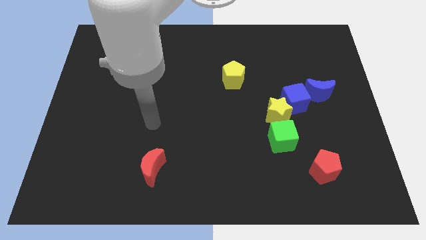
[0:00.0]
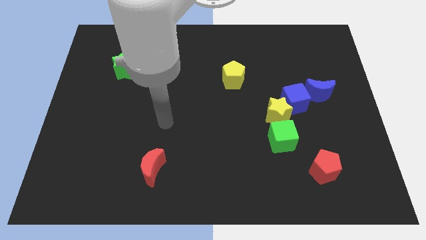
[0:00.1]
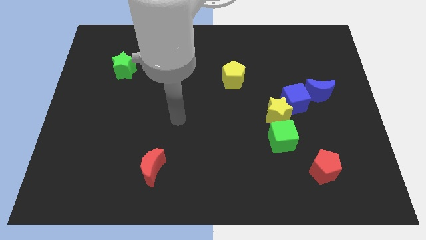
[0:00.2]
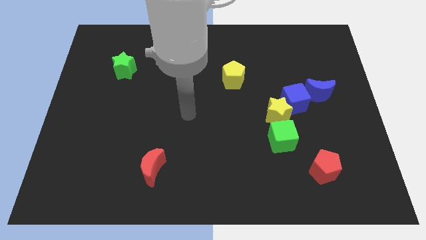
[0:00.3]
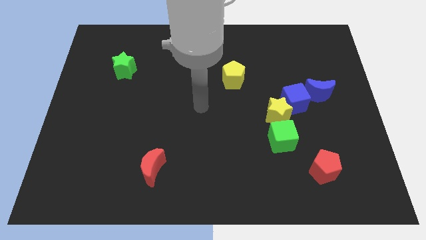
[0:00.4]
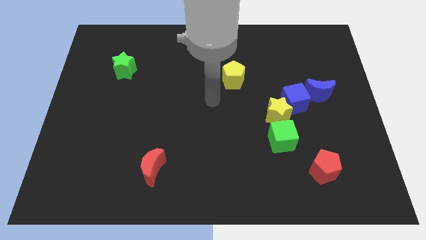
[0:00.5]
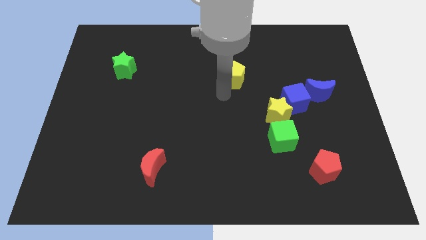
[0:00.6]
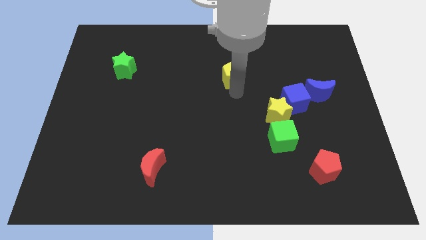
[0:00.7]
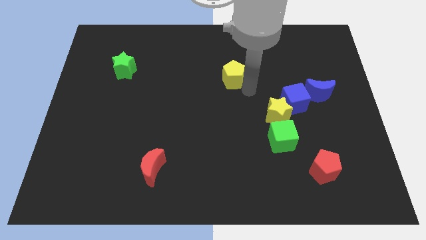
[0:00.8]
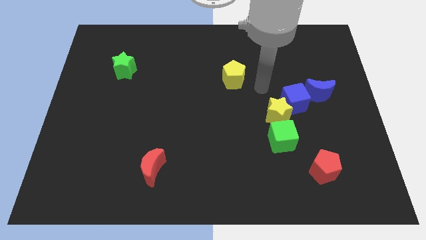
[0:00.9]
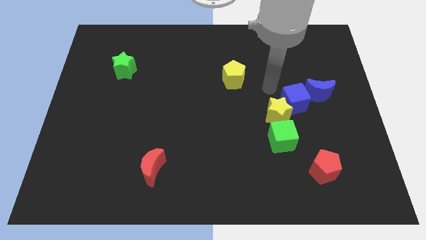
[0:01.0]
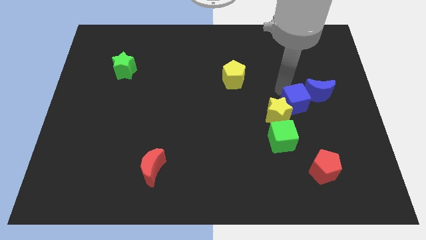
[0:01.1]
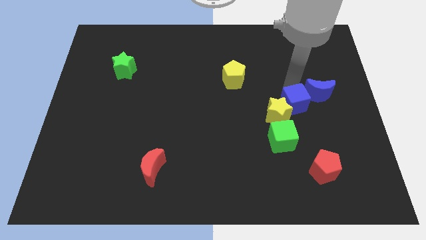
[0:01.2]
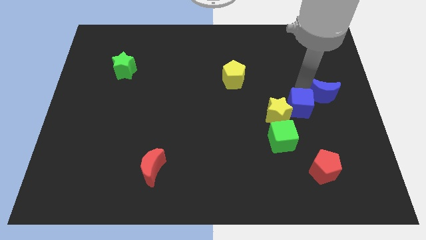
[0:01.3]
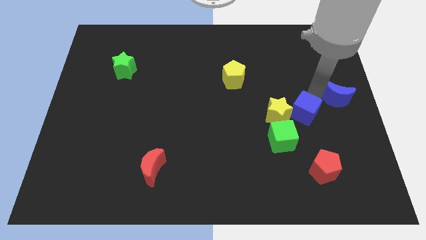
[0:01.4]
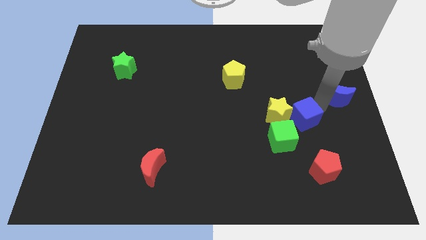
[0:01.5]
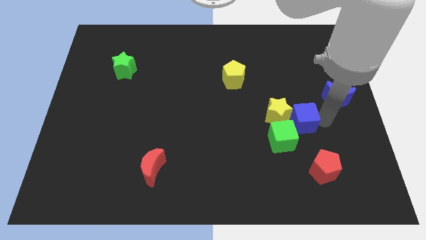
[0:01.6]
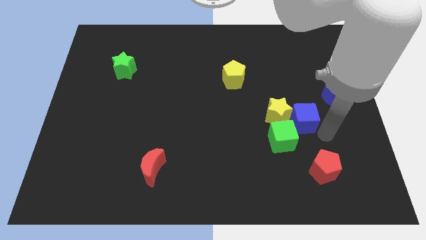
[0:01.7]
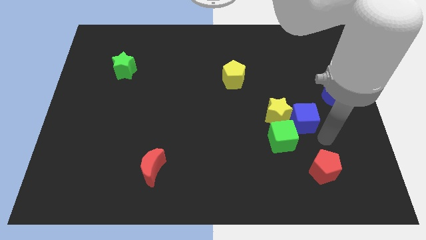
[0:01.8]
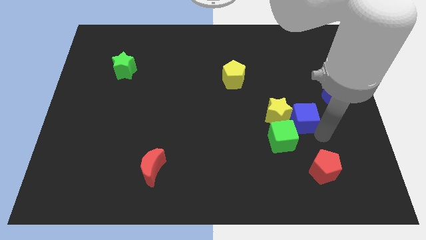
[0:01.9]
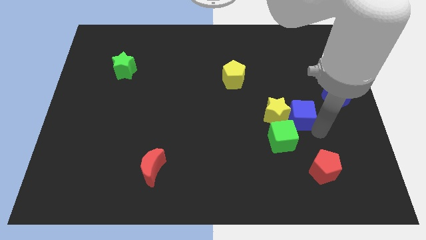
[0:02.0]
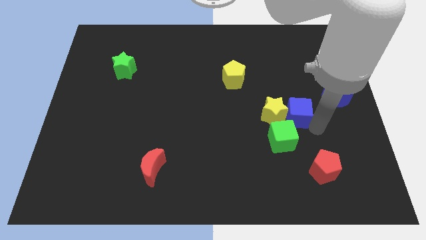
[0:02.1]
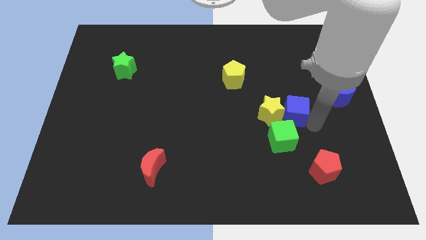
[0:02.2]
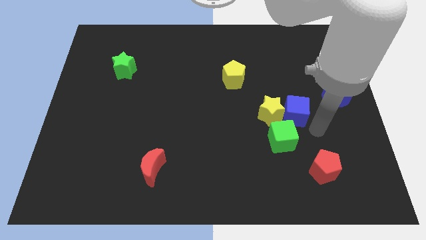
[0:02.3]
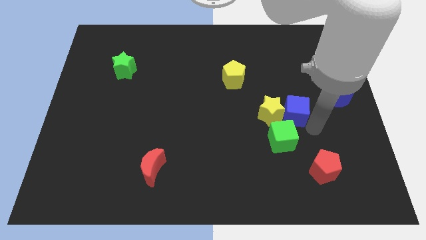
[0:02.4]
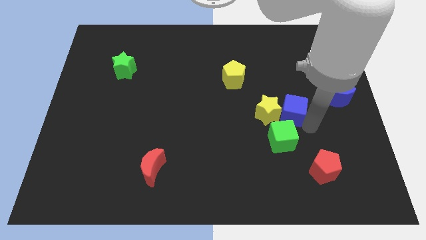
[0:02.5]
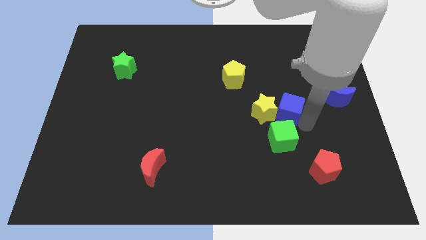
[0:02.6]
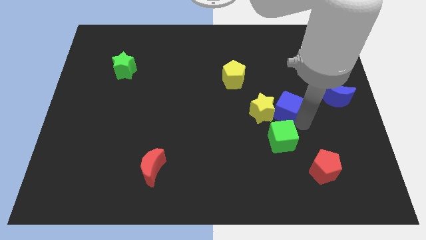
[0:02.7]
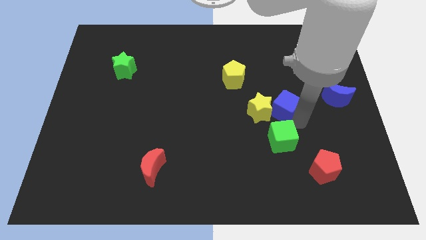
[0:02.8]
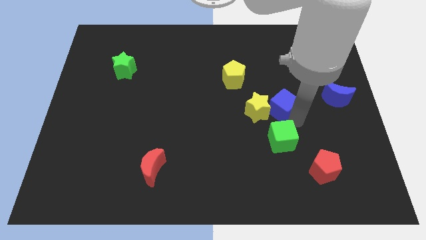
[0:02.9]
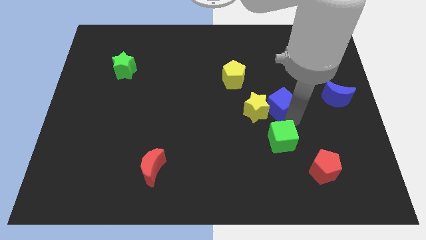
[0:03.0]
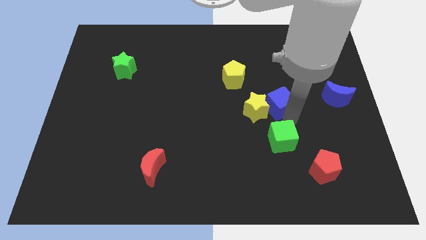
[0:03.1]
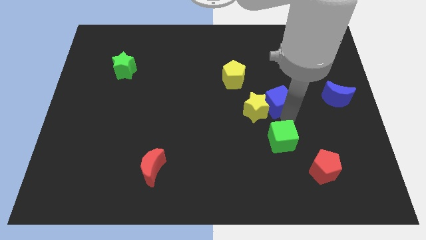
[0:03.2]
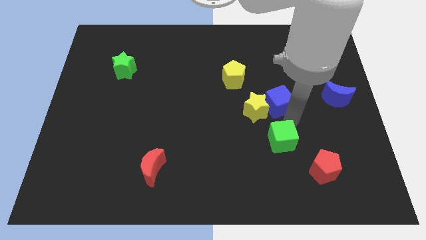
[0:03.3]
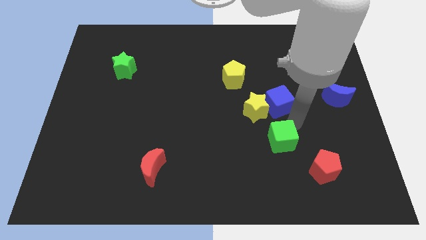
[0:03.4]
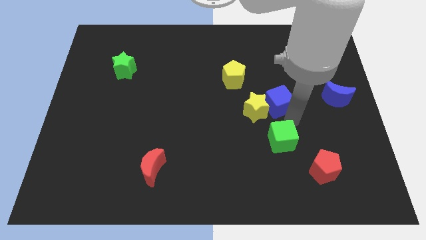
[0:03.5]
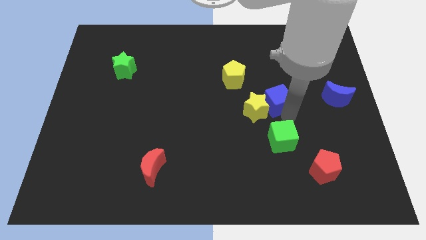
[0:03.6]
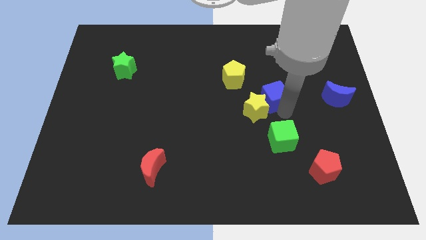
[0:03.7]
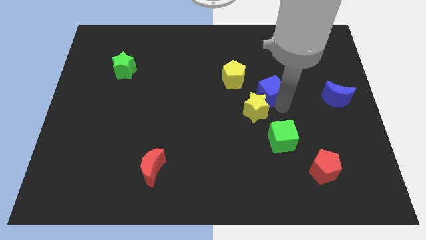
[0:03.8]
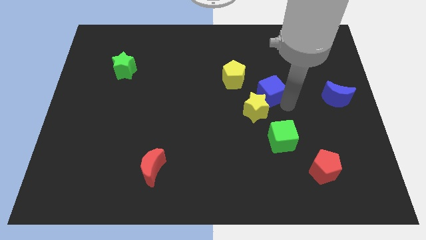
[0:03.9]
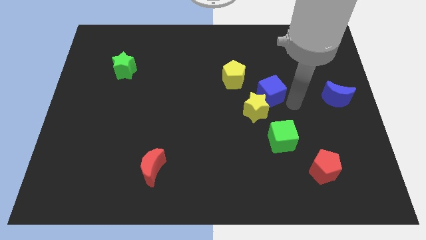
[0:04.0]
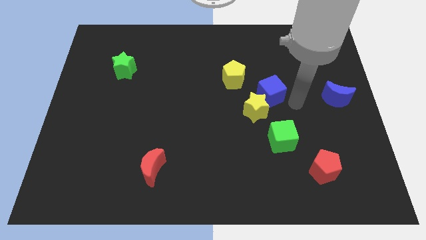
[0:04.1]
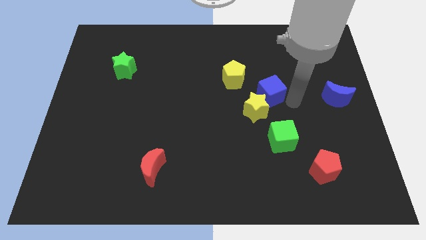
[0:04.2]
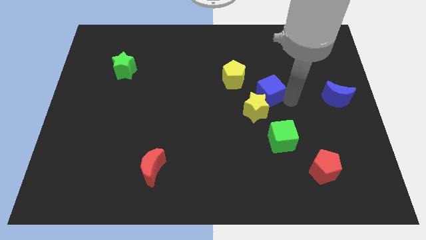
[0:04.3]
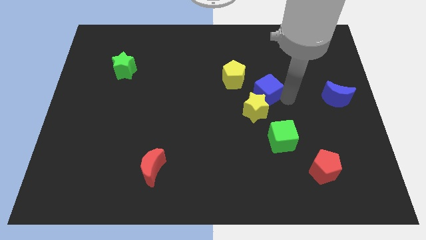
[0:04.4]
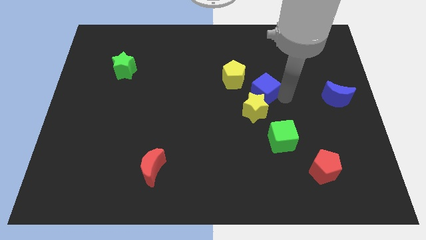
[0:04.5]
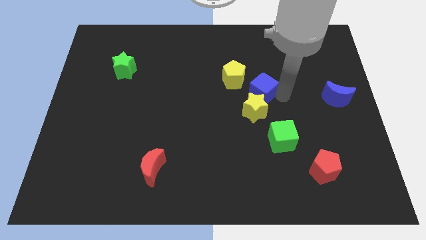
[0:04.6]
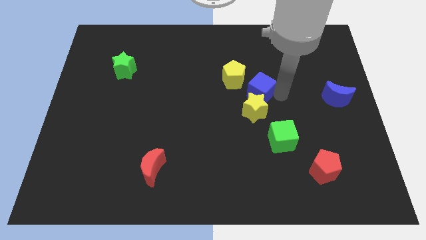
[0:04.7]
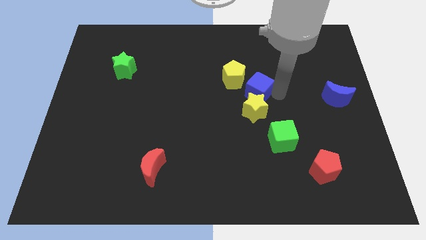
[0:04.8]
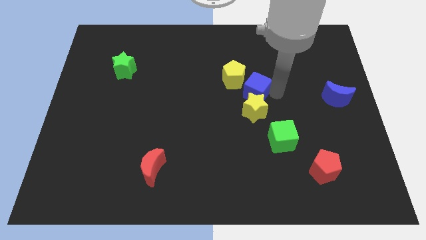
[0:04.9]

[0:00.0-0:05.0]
separate the blue cube from the yellow star and blue moon

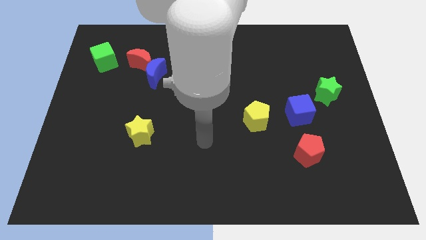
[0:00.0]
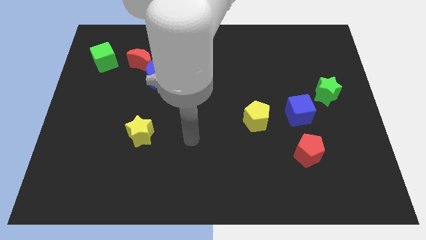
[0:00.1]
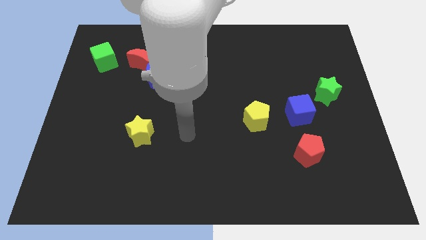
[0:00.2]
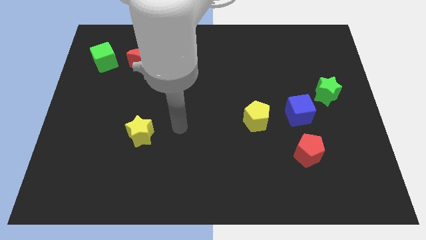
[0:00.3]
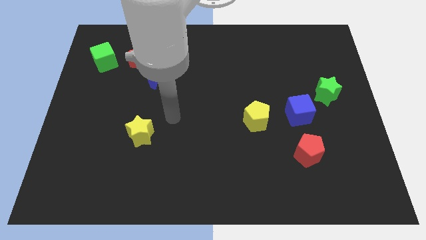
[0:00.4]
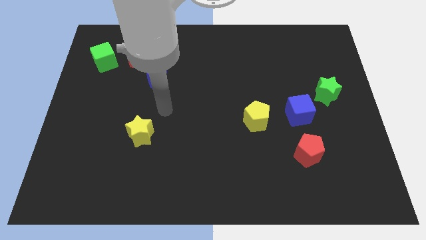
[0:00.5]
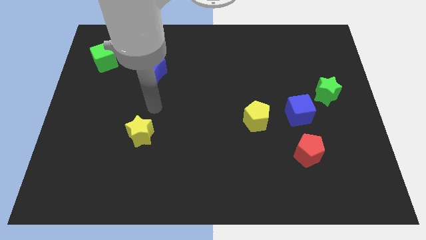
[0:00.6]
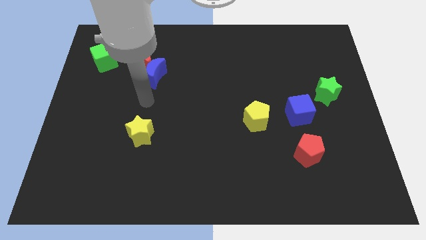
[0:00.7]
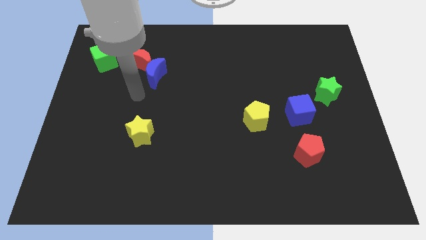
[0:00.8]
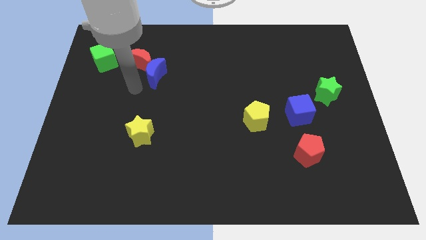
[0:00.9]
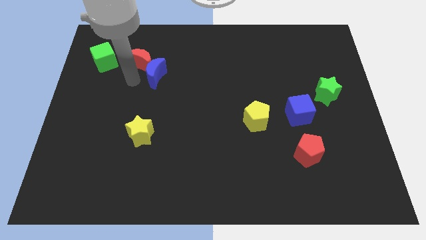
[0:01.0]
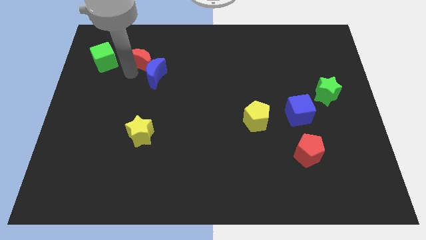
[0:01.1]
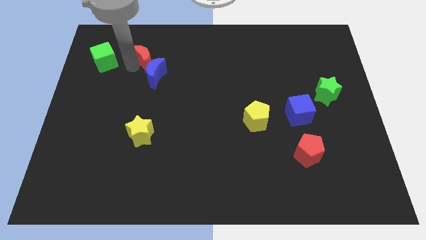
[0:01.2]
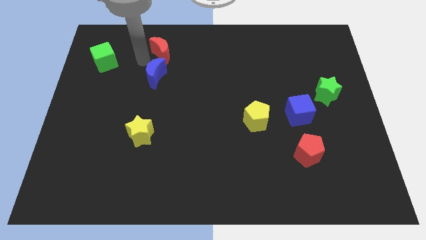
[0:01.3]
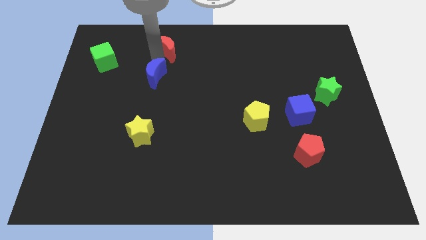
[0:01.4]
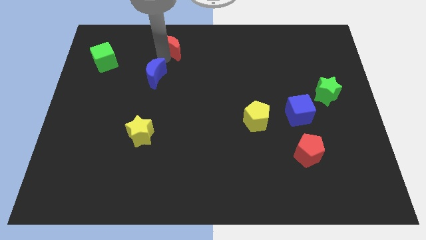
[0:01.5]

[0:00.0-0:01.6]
separate the blue moon from the red moon

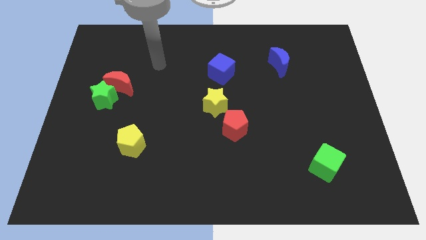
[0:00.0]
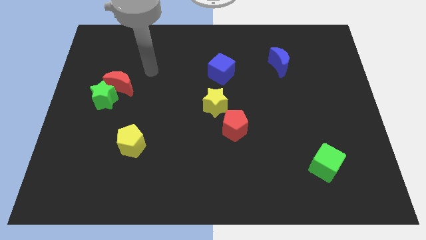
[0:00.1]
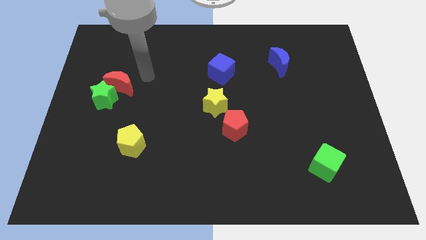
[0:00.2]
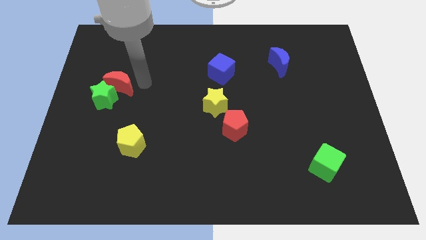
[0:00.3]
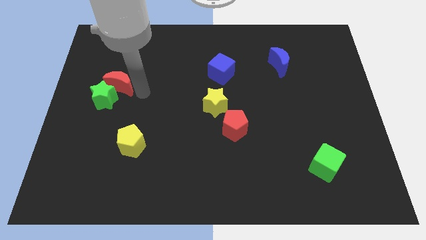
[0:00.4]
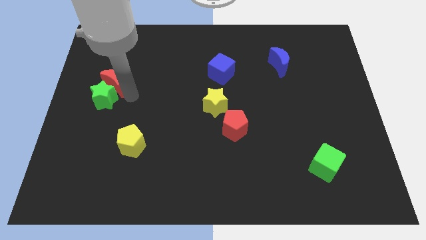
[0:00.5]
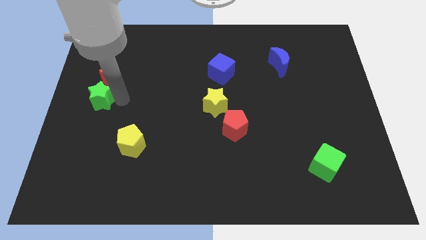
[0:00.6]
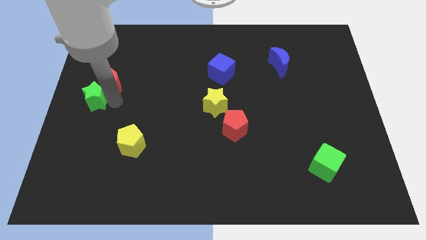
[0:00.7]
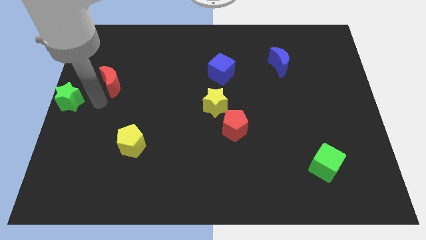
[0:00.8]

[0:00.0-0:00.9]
separate the red moon from the green star

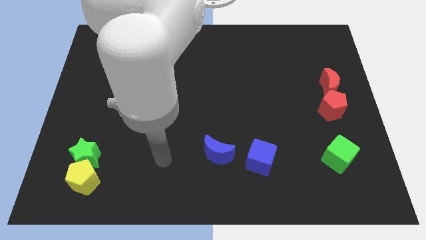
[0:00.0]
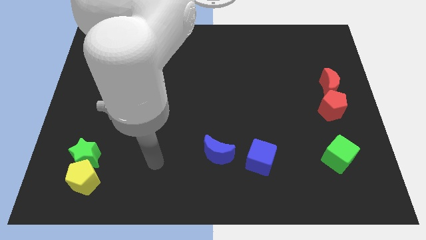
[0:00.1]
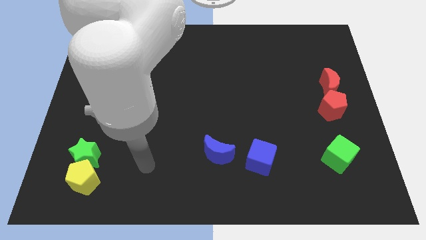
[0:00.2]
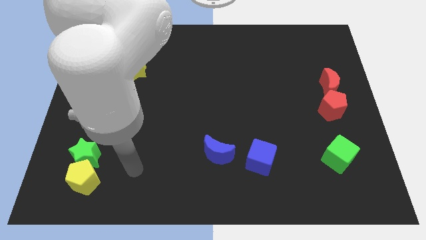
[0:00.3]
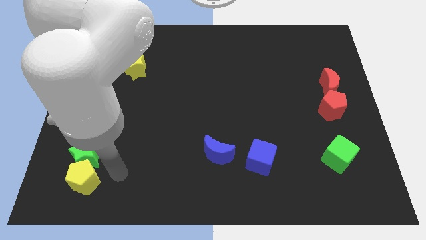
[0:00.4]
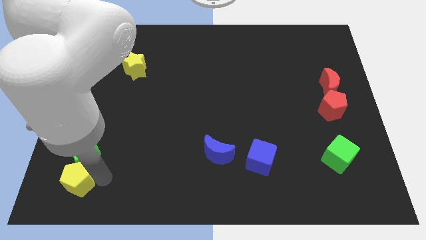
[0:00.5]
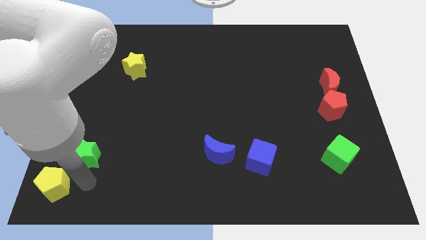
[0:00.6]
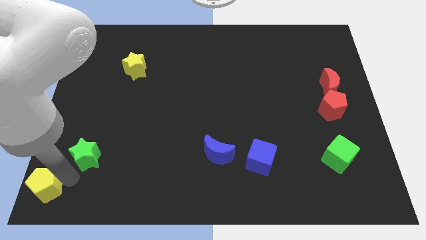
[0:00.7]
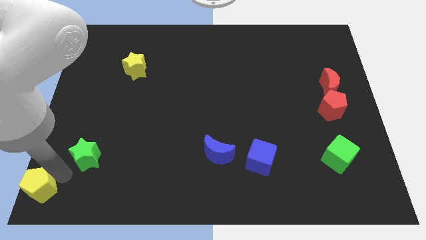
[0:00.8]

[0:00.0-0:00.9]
move the green star away from the yellow pentagon

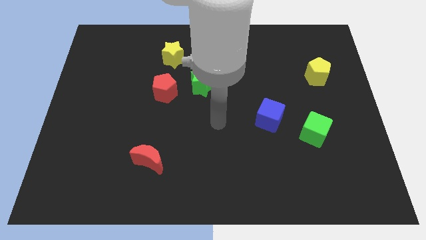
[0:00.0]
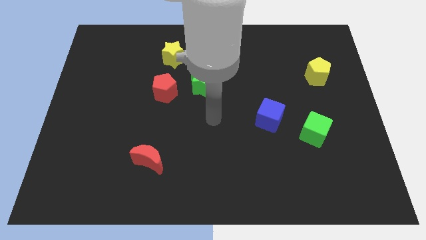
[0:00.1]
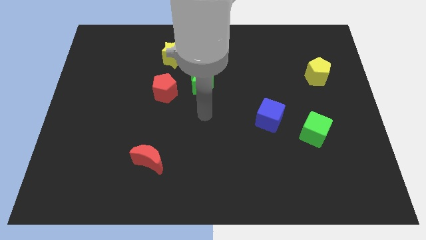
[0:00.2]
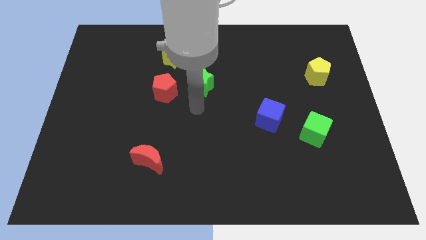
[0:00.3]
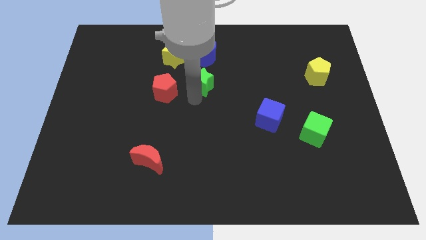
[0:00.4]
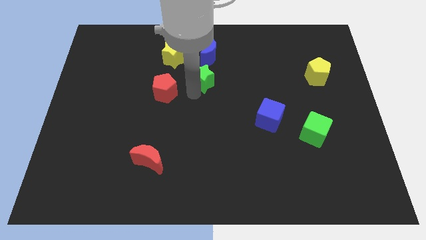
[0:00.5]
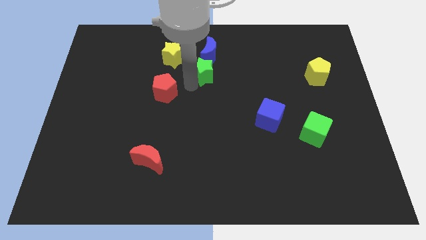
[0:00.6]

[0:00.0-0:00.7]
move the red pentagon away from the green star

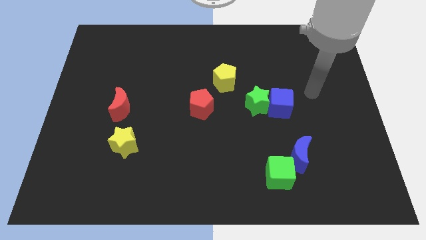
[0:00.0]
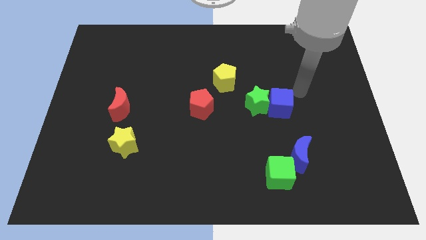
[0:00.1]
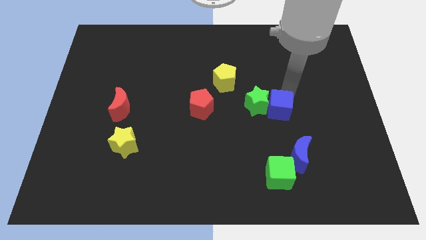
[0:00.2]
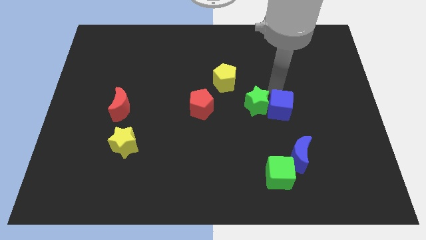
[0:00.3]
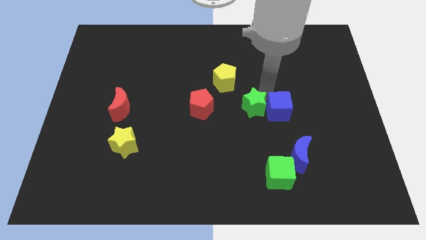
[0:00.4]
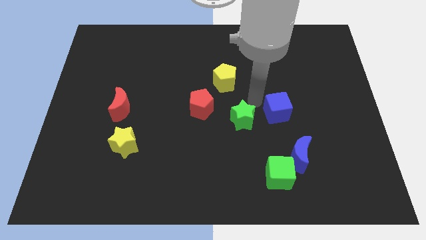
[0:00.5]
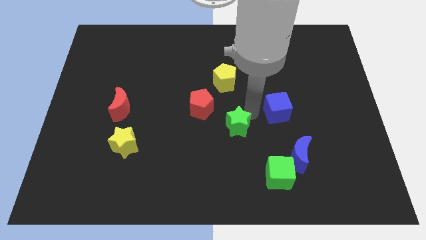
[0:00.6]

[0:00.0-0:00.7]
pull the blue cube apart from the green star